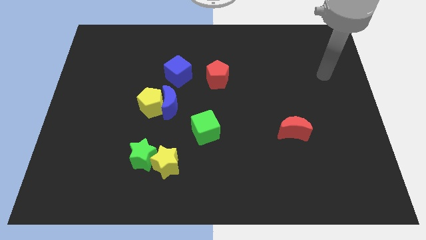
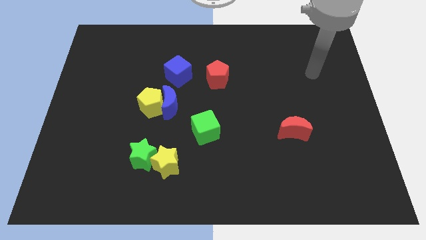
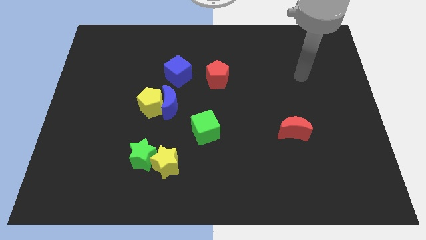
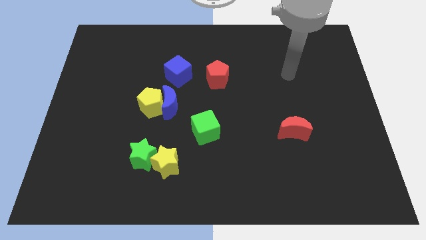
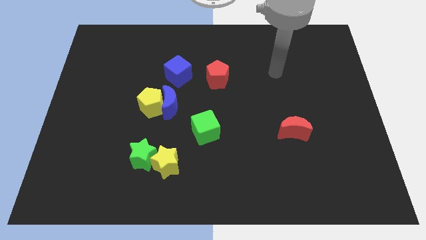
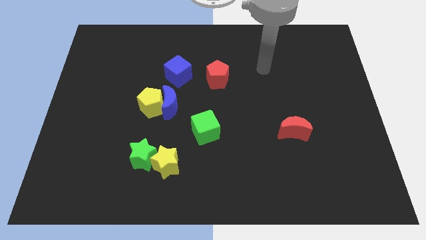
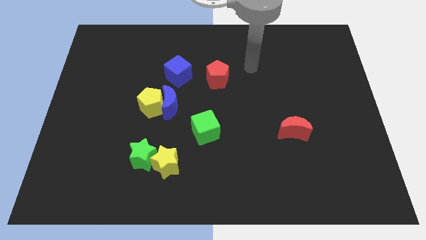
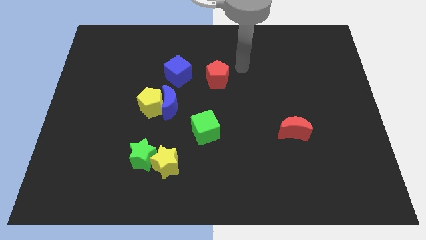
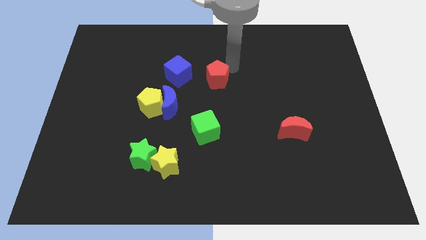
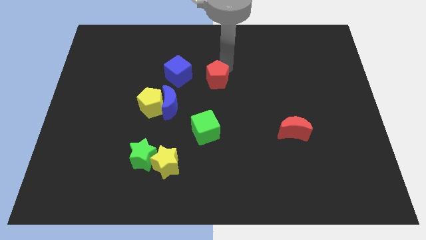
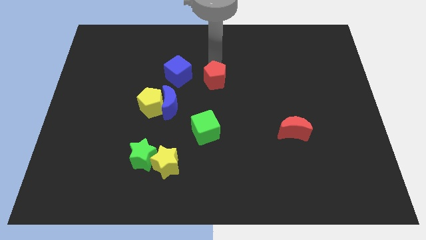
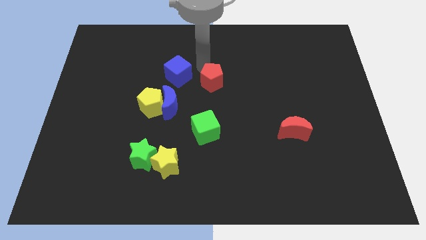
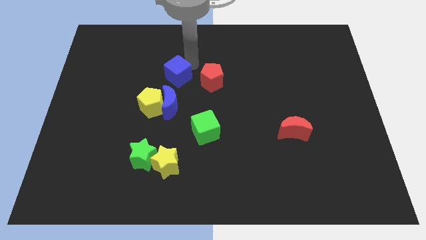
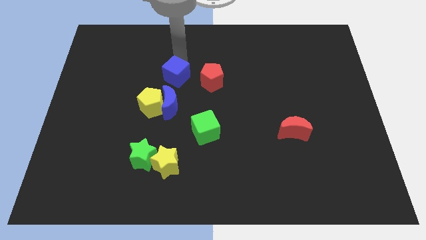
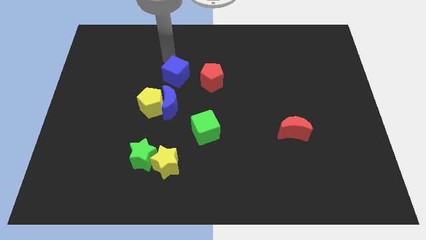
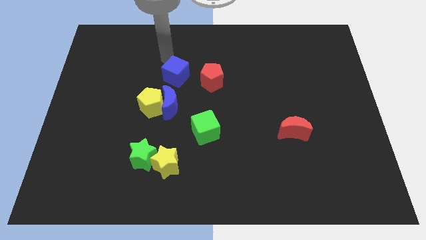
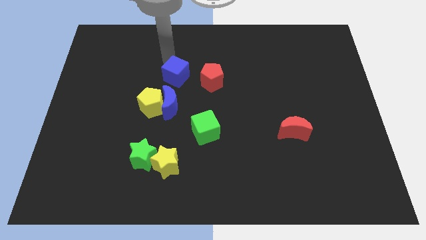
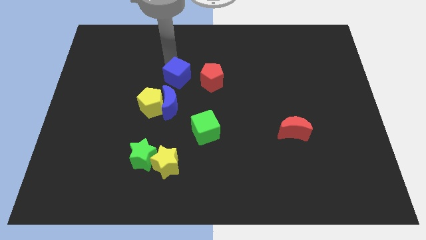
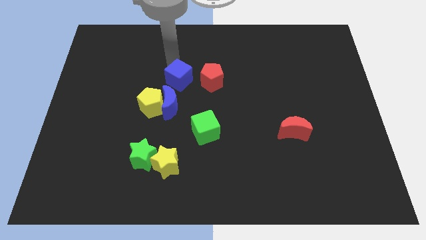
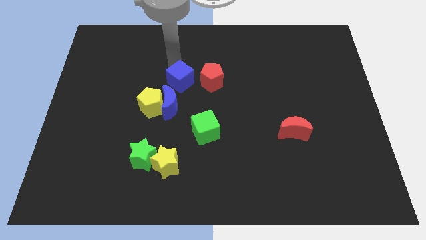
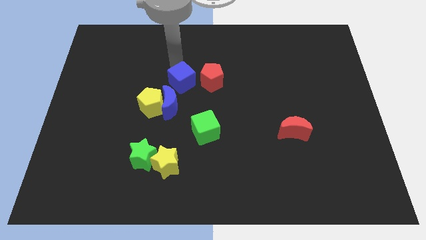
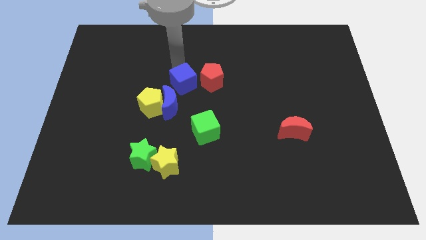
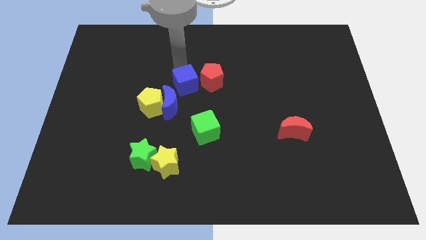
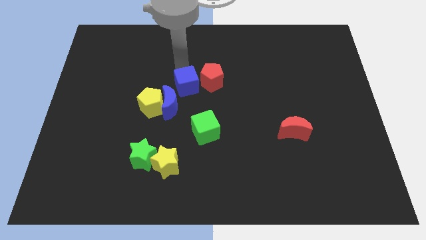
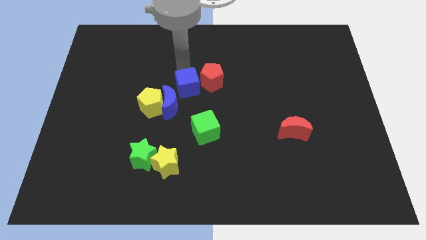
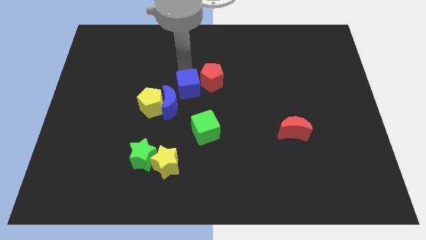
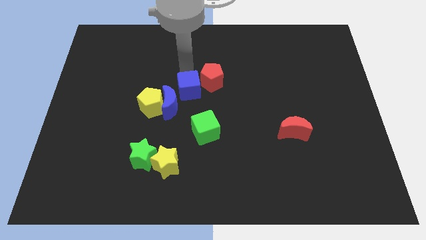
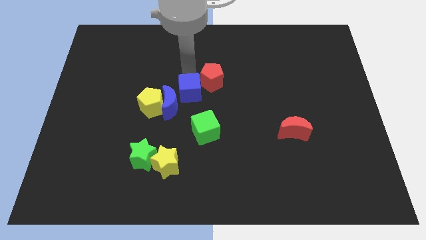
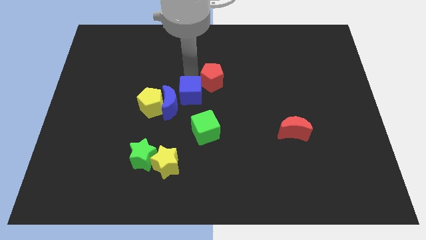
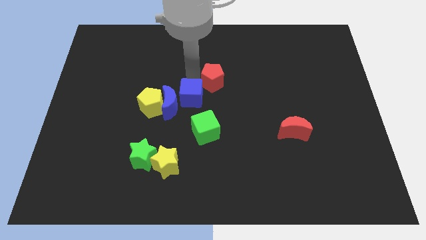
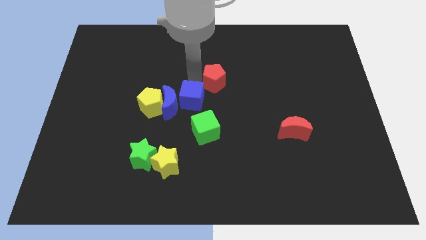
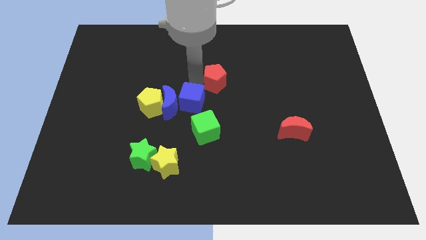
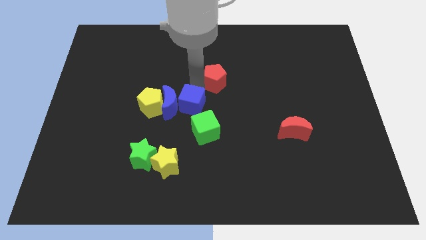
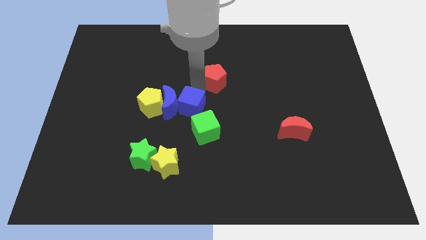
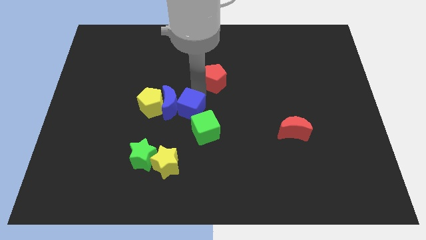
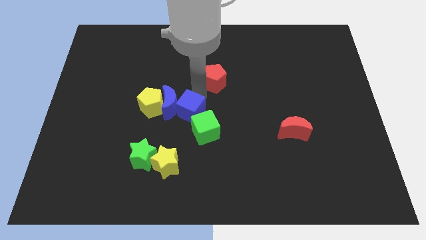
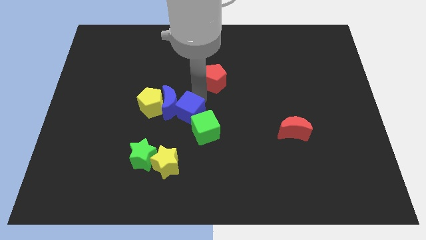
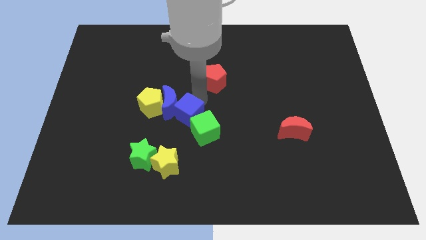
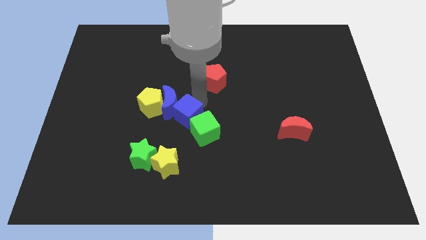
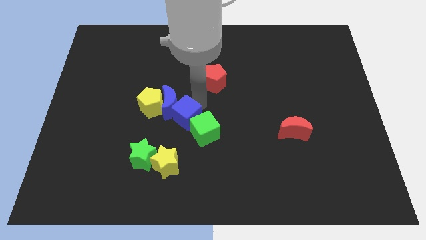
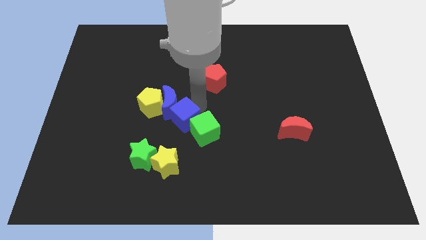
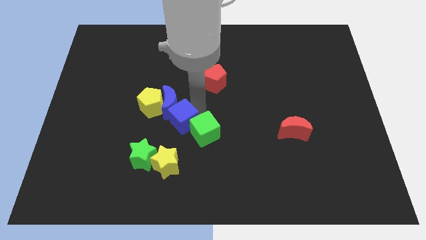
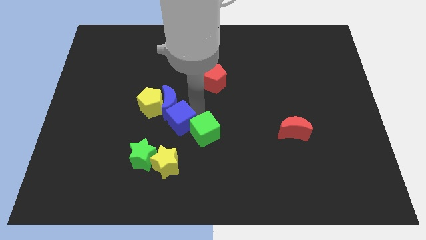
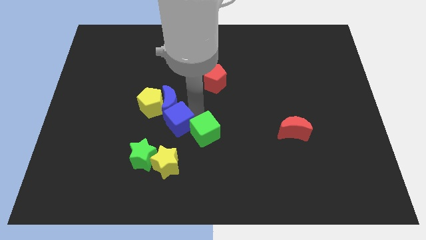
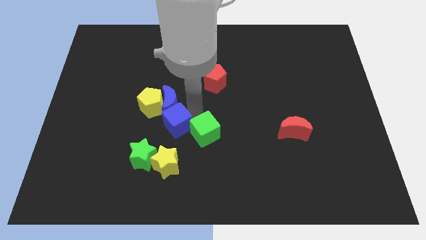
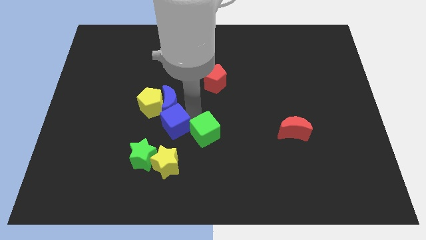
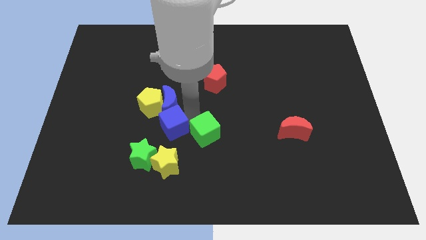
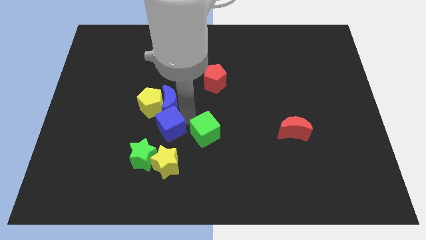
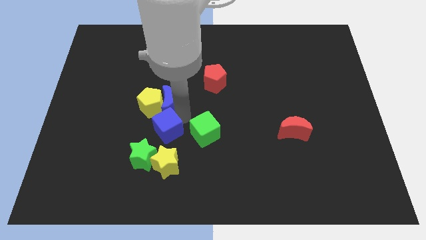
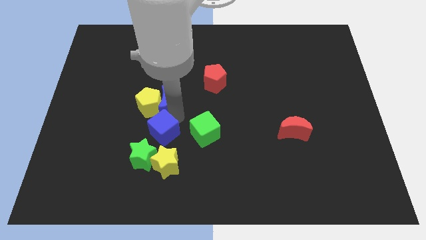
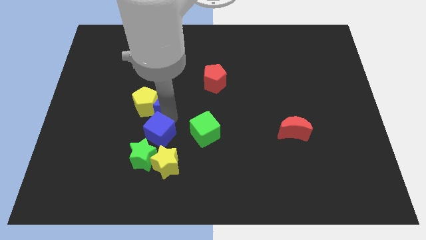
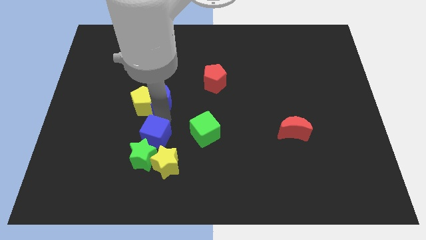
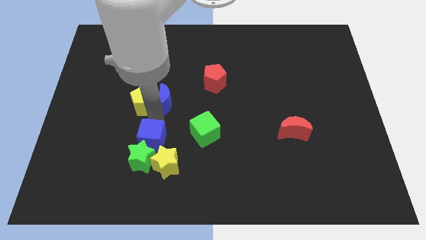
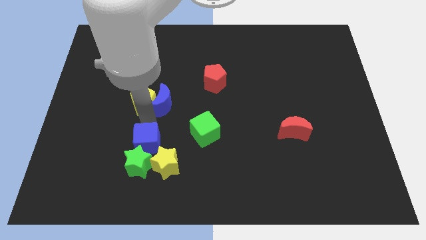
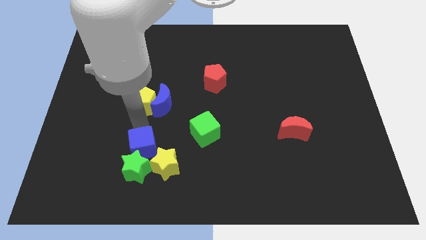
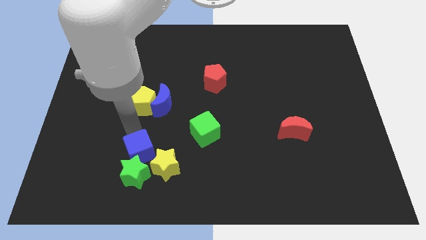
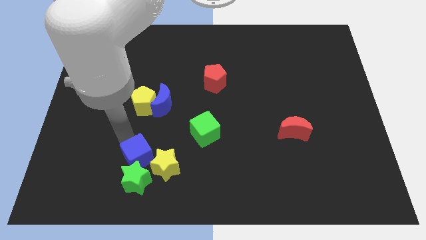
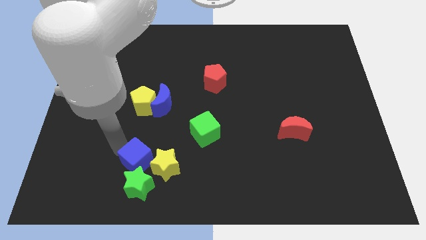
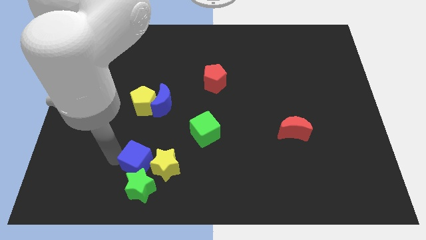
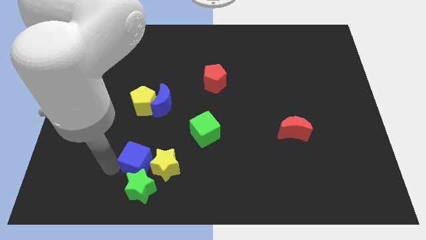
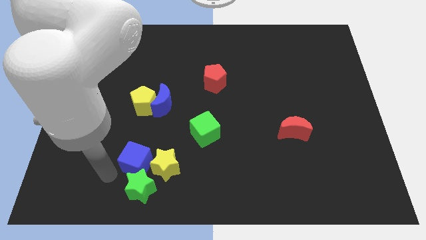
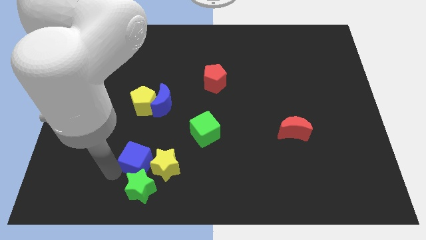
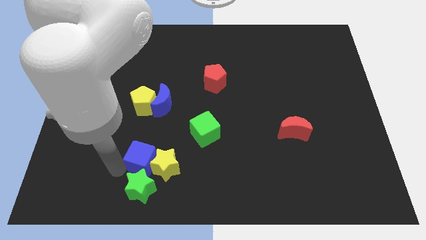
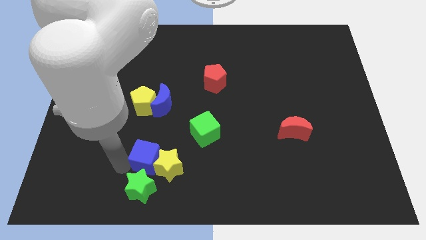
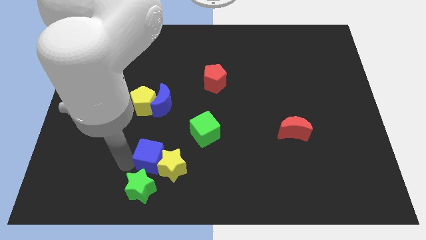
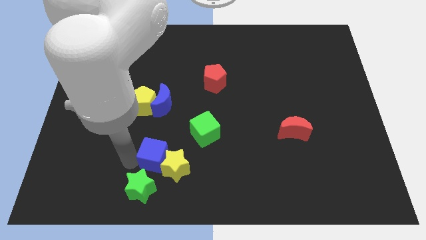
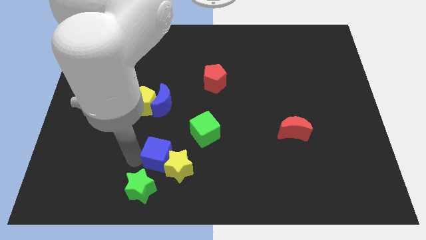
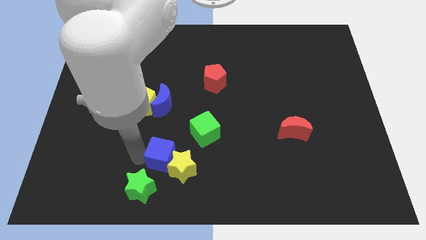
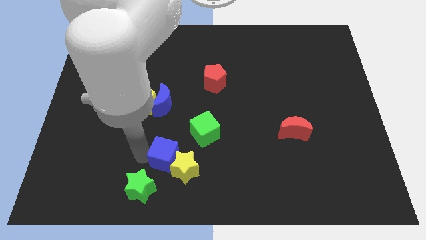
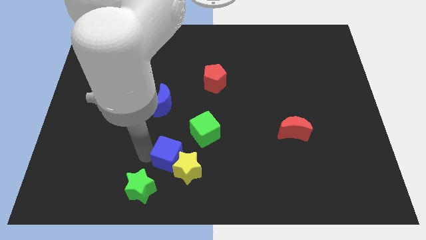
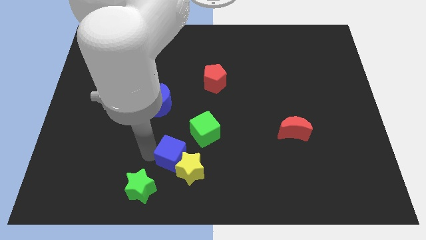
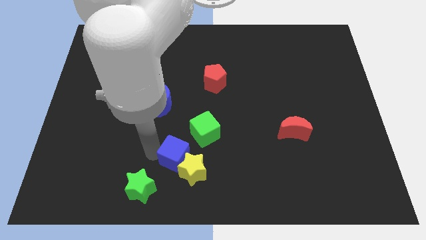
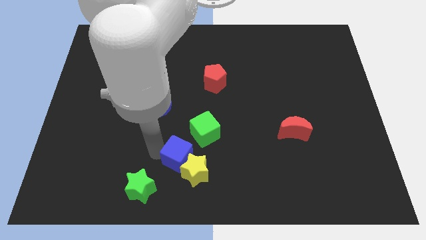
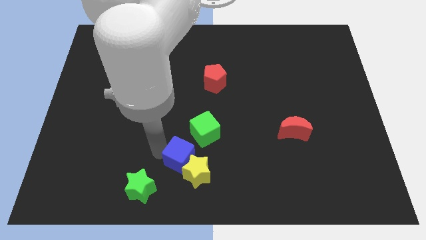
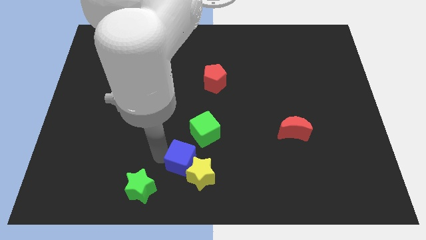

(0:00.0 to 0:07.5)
put the blue cube to the bottom side
